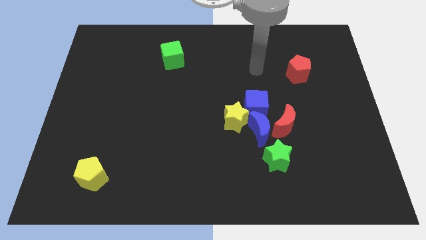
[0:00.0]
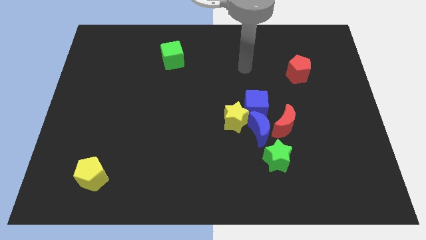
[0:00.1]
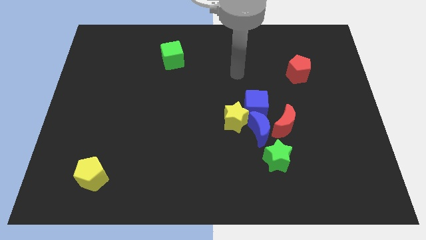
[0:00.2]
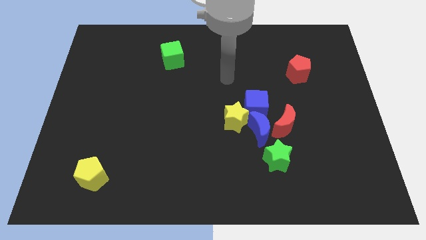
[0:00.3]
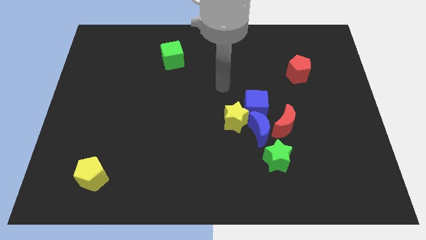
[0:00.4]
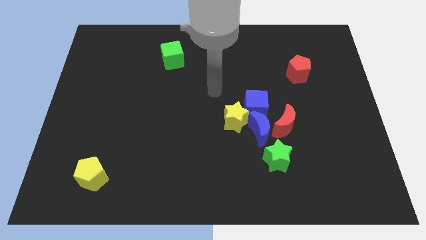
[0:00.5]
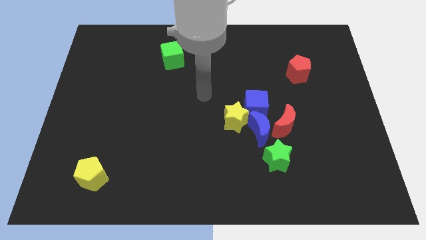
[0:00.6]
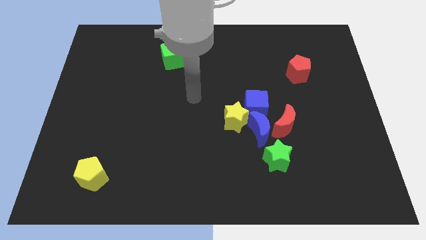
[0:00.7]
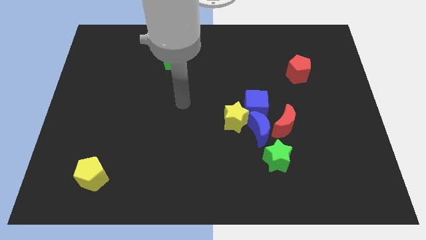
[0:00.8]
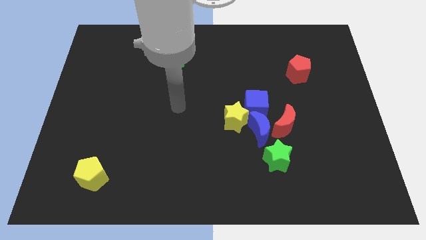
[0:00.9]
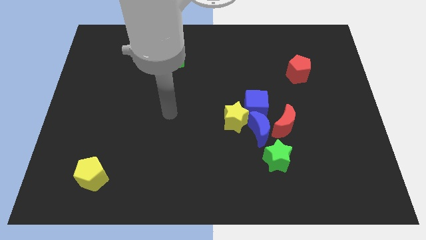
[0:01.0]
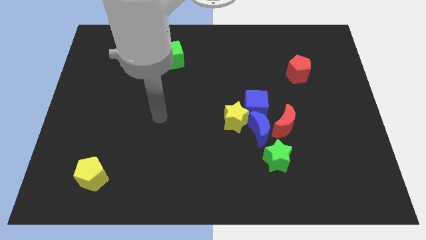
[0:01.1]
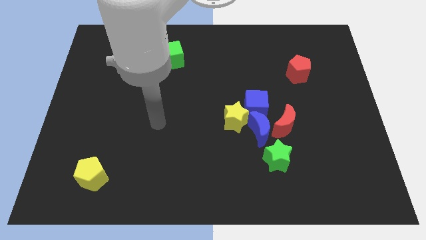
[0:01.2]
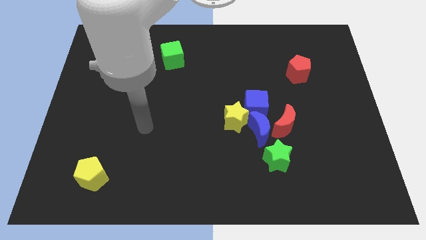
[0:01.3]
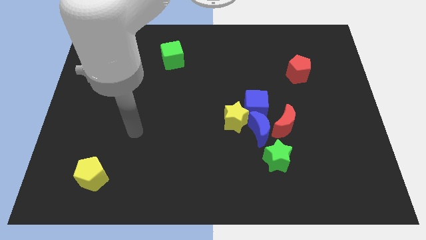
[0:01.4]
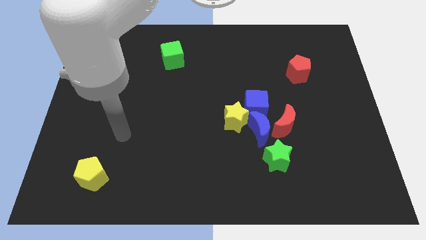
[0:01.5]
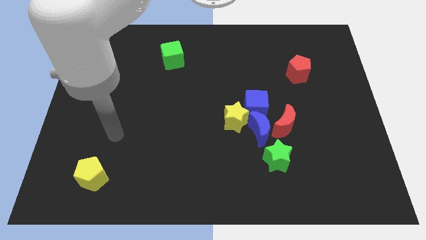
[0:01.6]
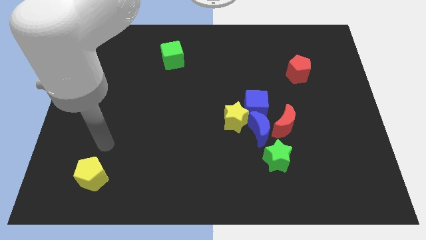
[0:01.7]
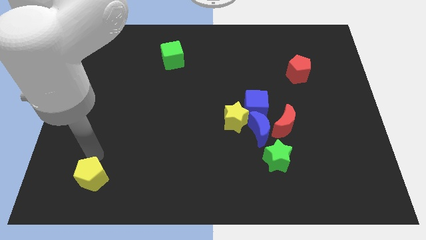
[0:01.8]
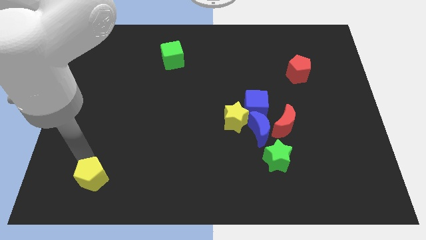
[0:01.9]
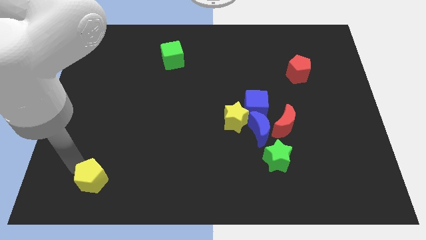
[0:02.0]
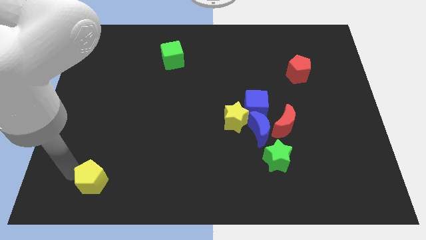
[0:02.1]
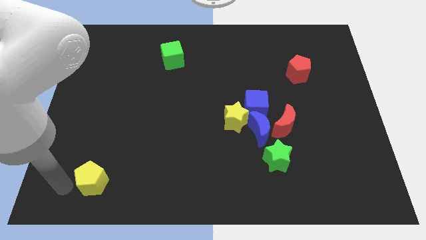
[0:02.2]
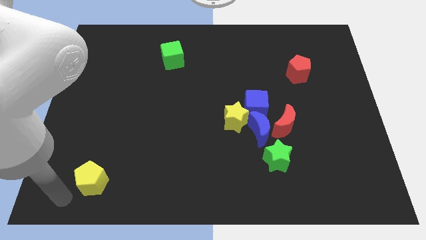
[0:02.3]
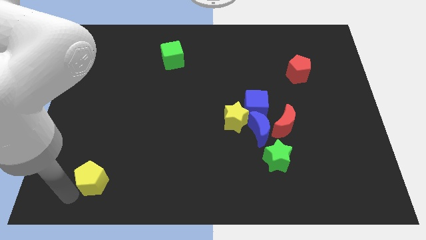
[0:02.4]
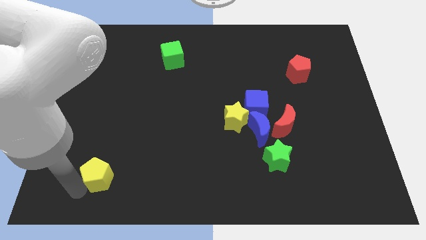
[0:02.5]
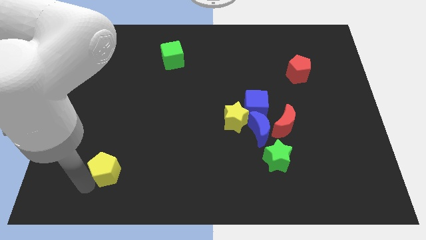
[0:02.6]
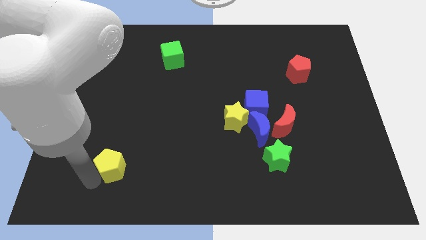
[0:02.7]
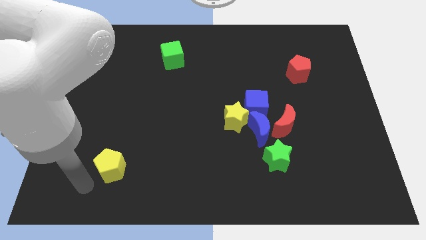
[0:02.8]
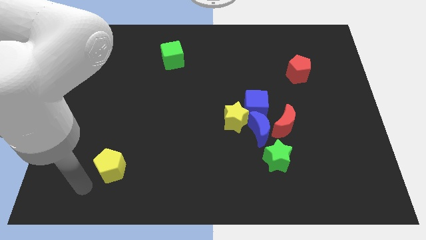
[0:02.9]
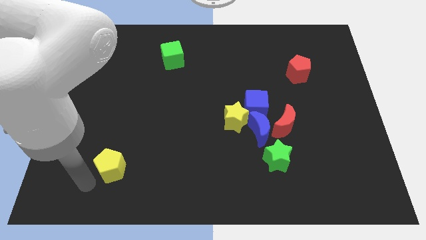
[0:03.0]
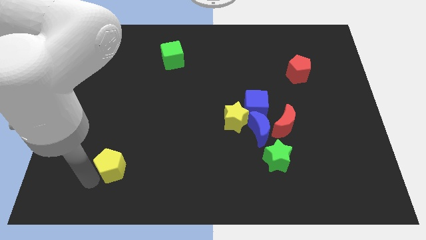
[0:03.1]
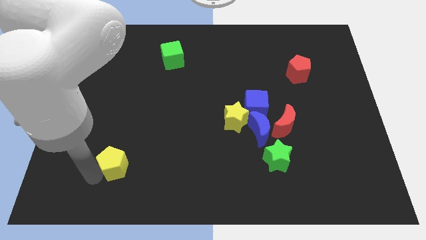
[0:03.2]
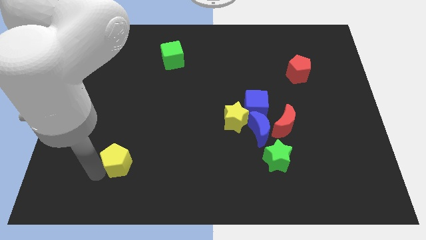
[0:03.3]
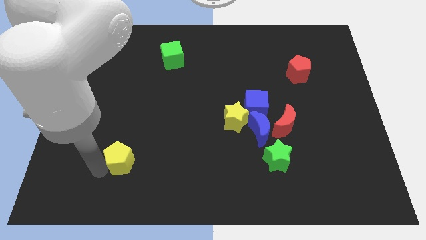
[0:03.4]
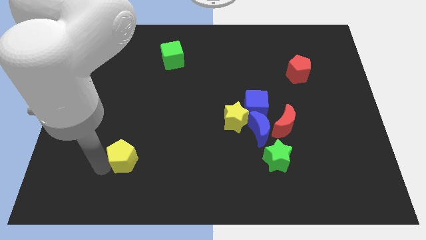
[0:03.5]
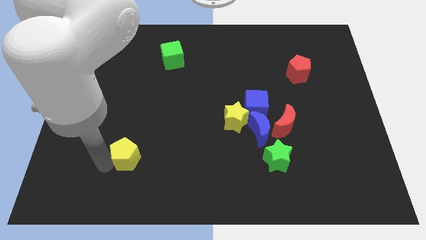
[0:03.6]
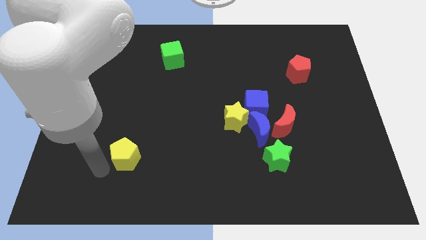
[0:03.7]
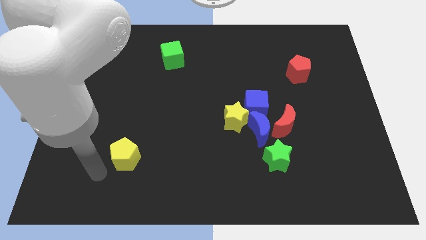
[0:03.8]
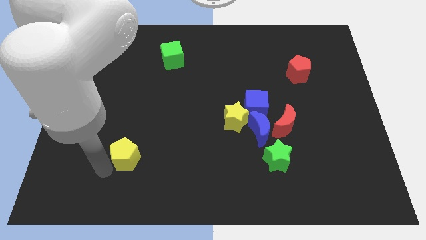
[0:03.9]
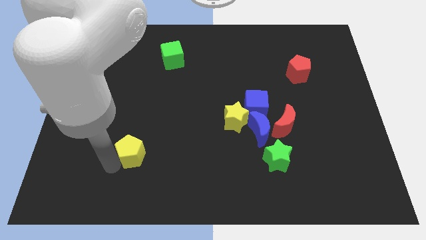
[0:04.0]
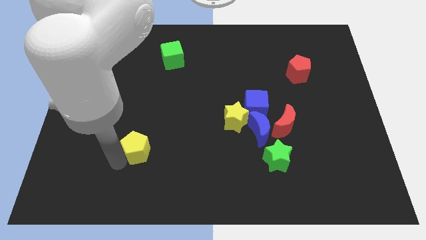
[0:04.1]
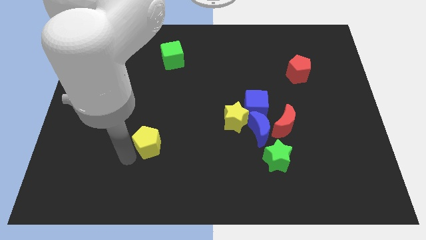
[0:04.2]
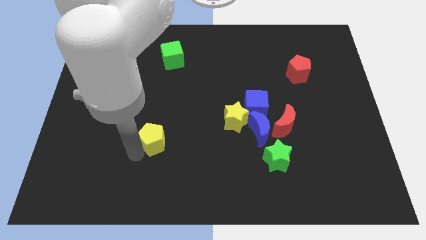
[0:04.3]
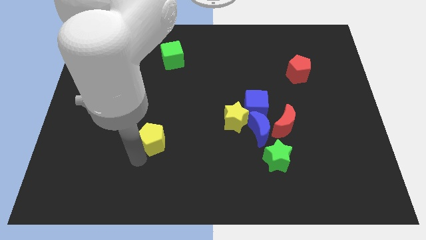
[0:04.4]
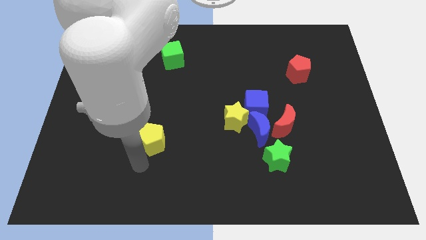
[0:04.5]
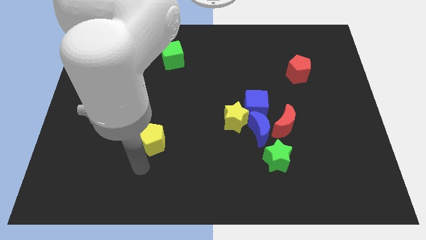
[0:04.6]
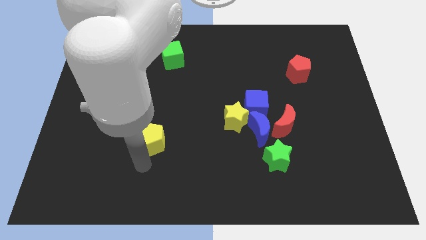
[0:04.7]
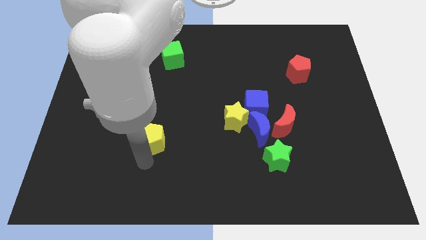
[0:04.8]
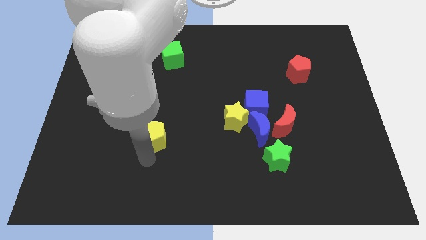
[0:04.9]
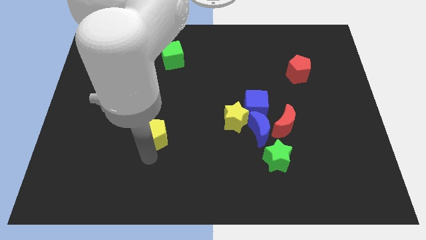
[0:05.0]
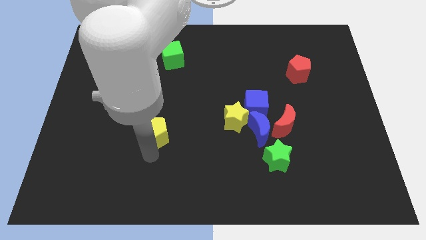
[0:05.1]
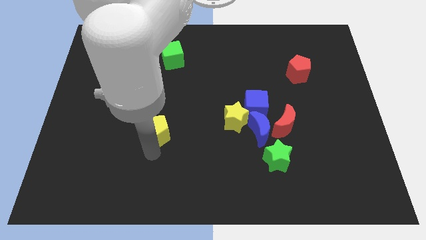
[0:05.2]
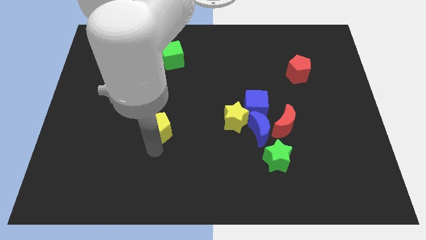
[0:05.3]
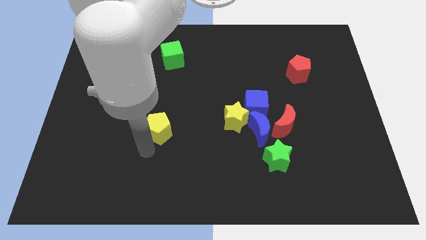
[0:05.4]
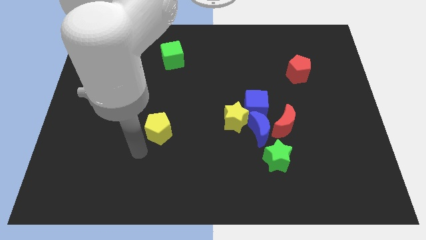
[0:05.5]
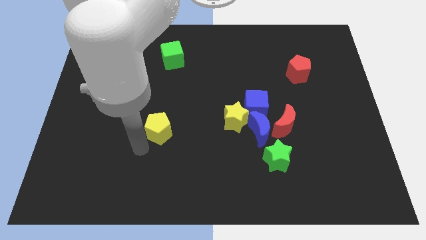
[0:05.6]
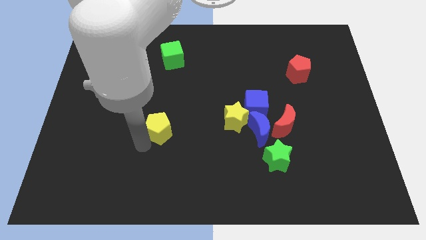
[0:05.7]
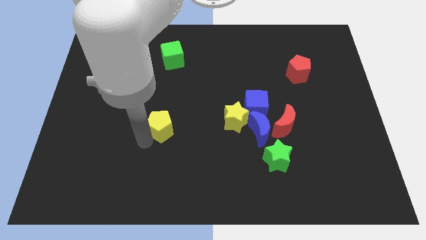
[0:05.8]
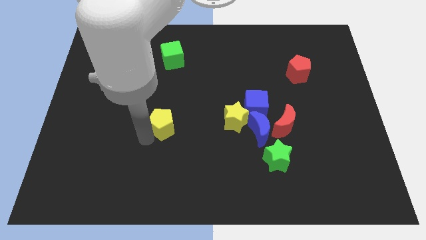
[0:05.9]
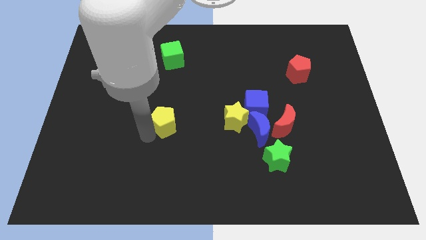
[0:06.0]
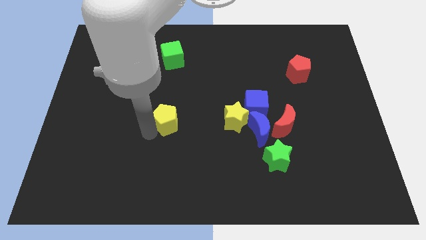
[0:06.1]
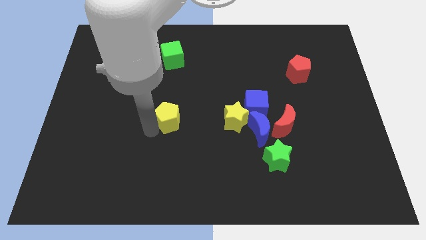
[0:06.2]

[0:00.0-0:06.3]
push the yellow pentagon up and right diagonally

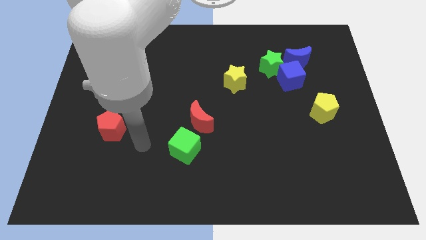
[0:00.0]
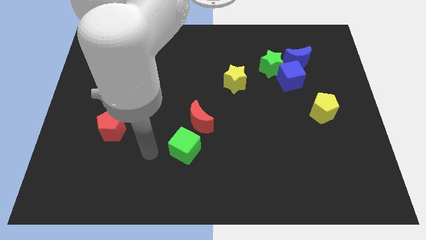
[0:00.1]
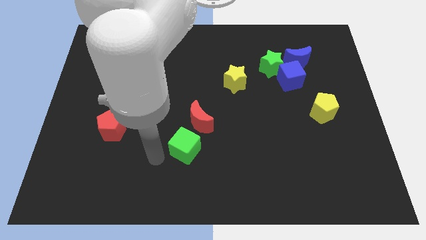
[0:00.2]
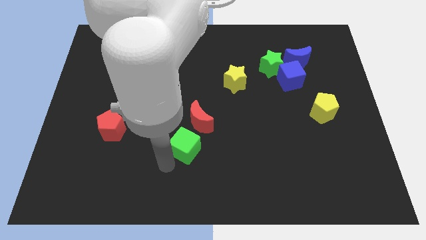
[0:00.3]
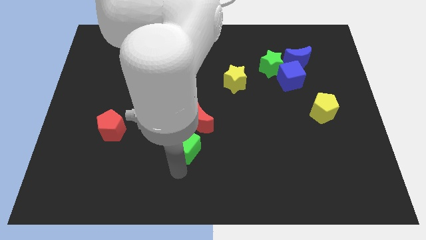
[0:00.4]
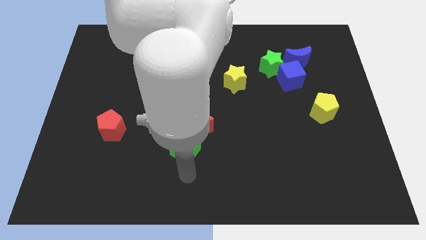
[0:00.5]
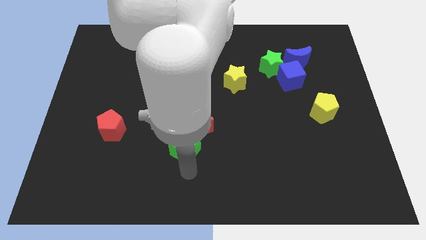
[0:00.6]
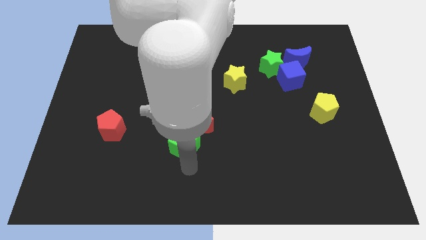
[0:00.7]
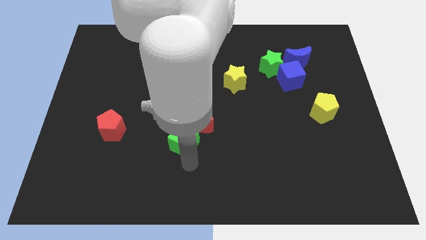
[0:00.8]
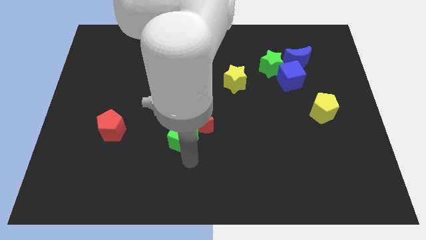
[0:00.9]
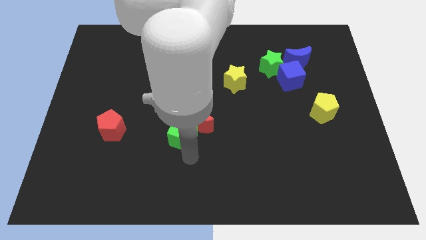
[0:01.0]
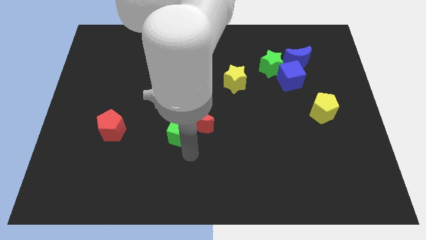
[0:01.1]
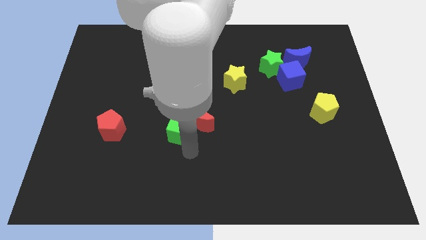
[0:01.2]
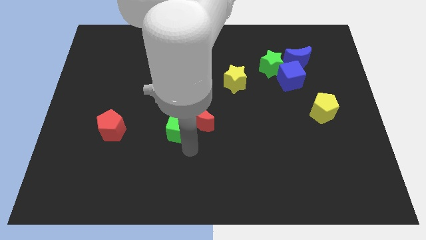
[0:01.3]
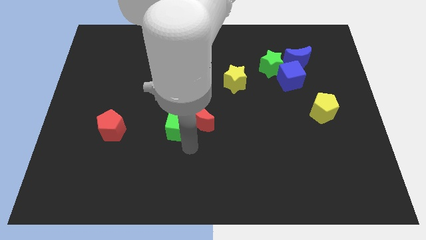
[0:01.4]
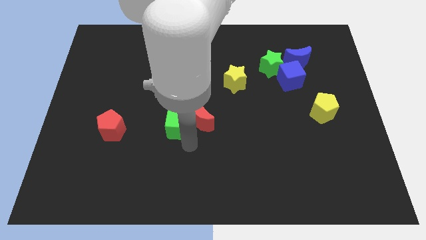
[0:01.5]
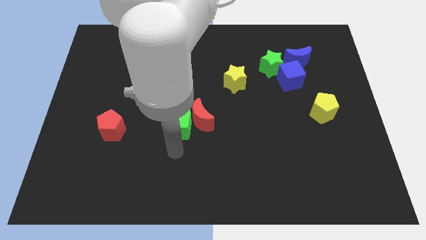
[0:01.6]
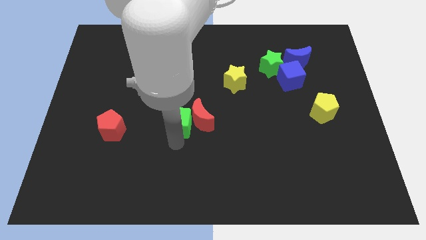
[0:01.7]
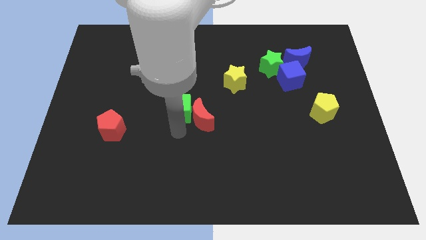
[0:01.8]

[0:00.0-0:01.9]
slide the green cube upwards a little bit
